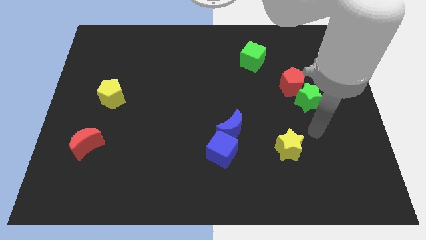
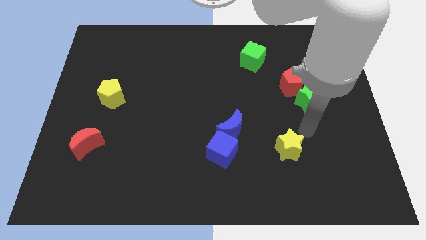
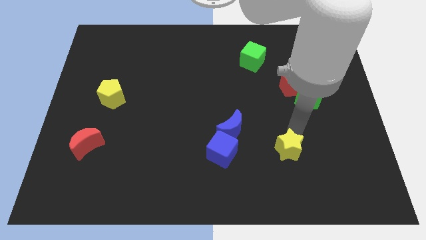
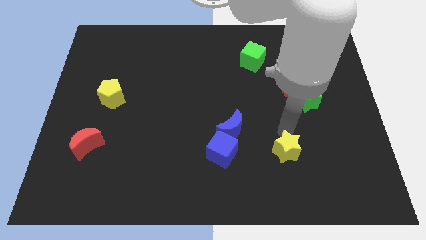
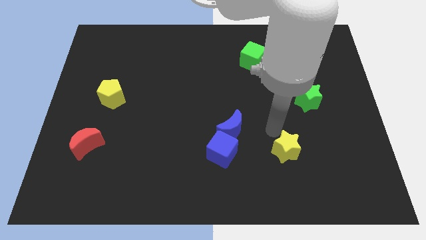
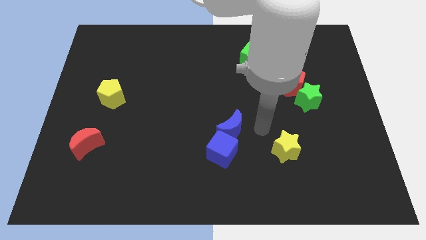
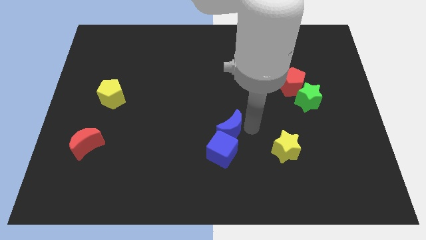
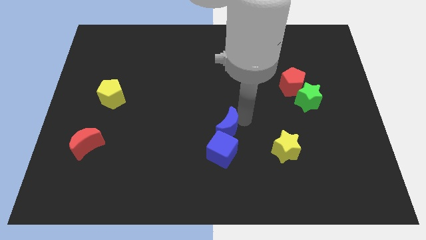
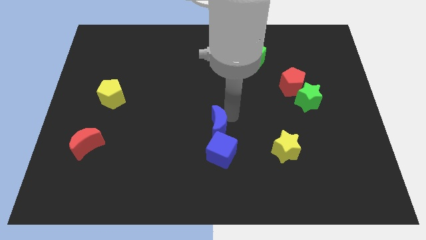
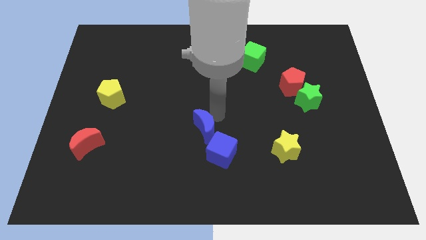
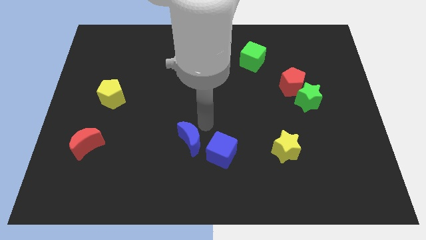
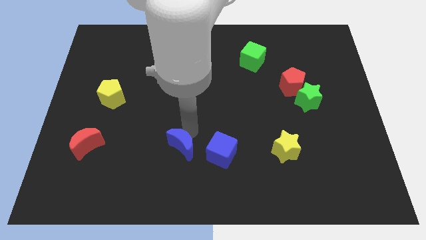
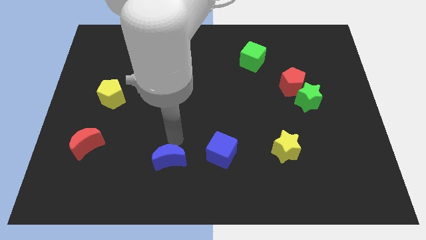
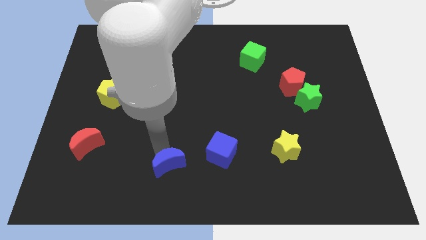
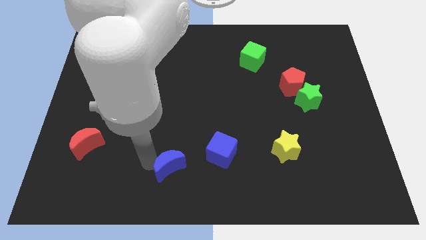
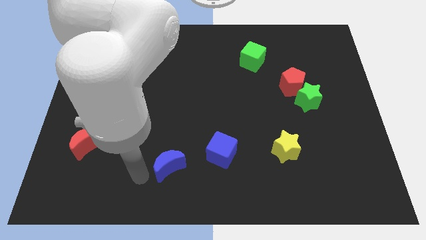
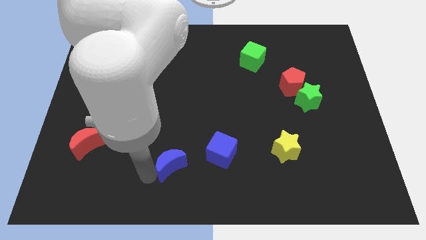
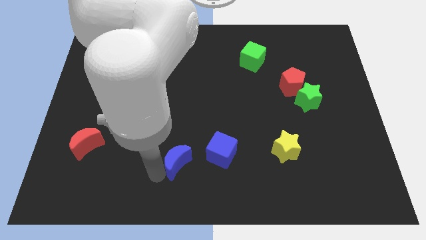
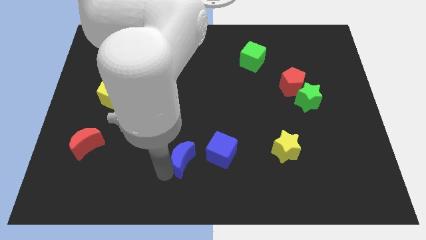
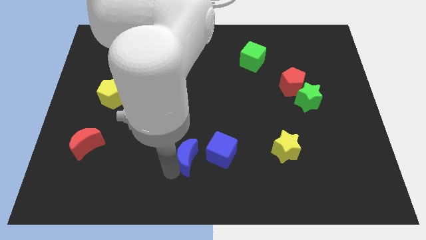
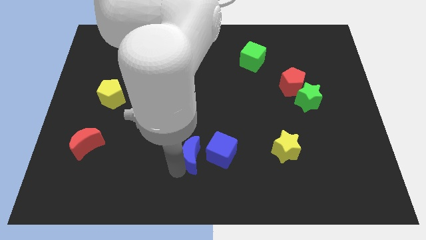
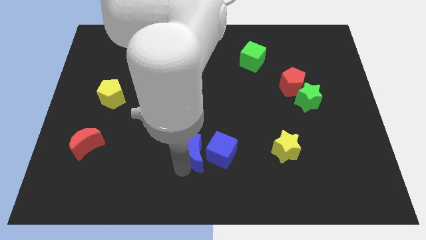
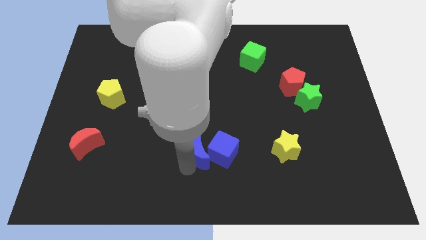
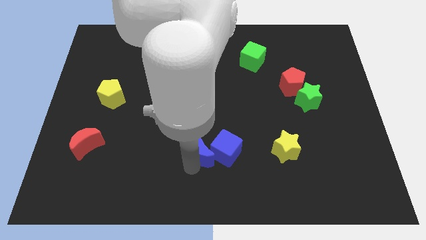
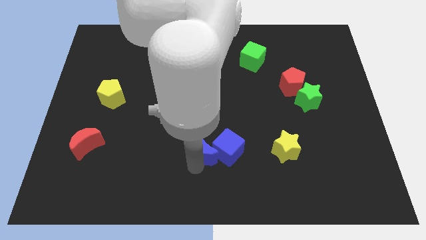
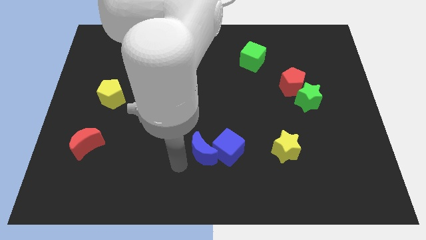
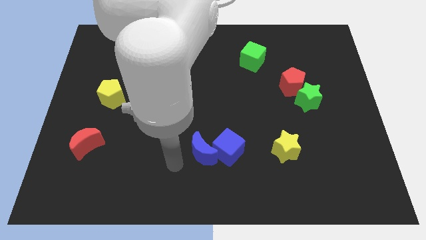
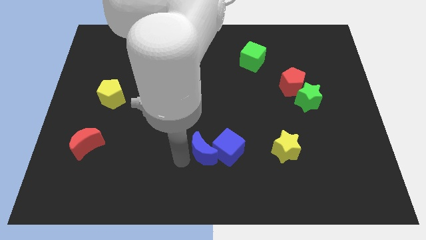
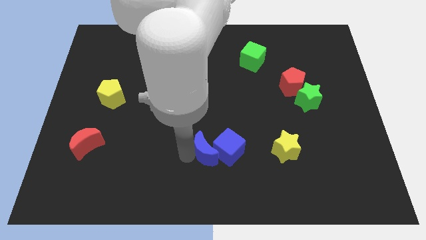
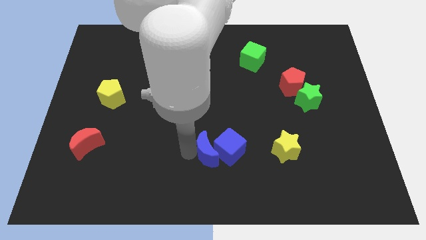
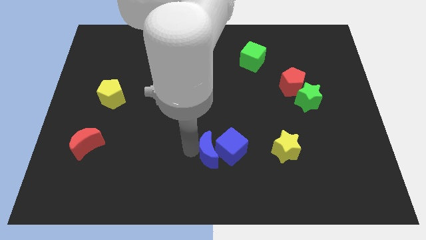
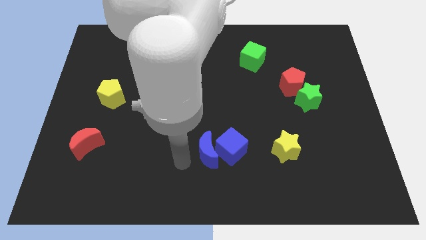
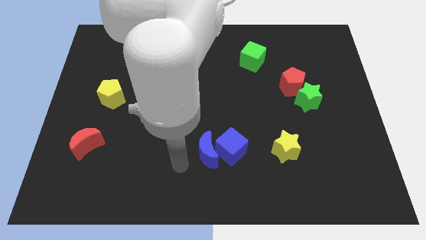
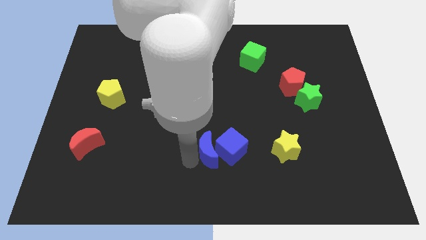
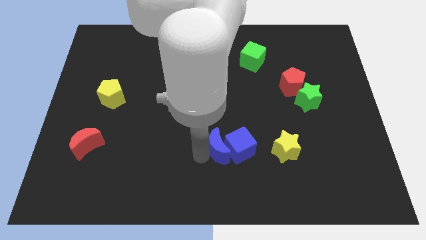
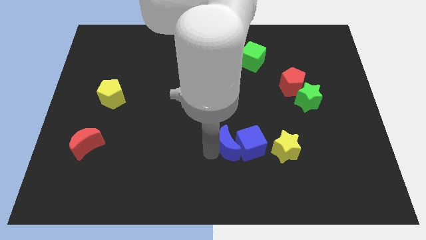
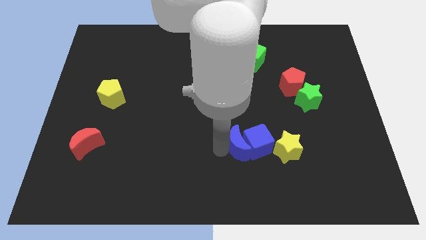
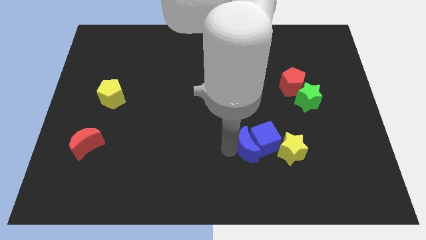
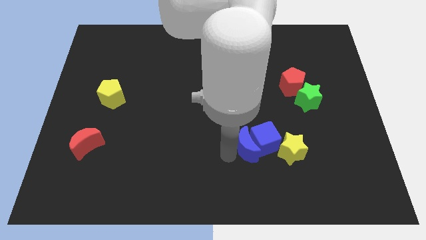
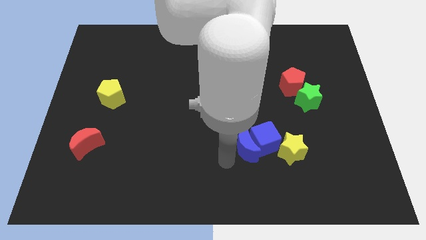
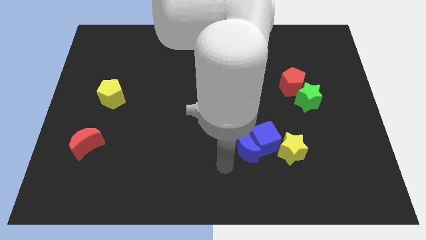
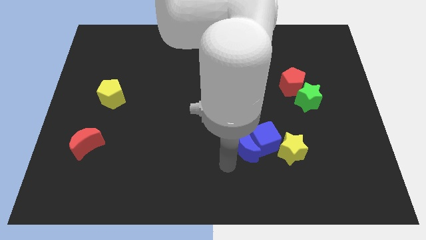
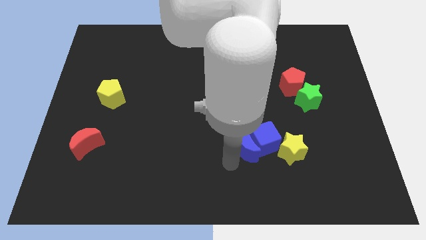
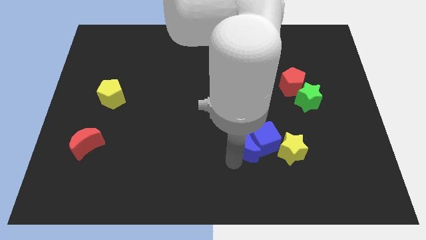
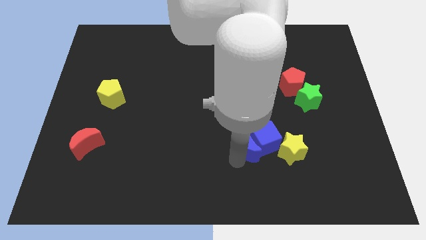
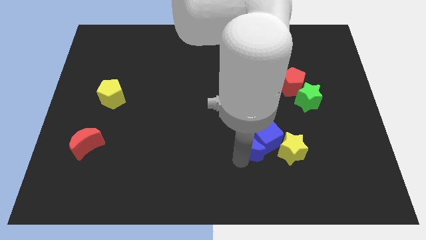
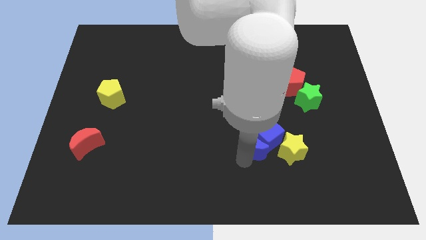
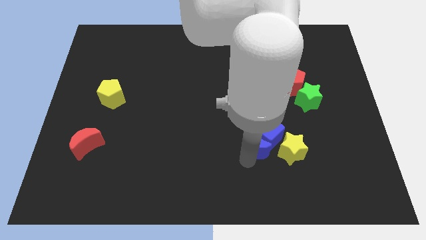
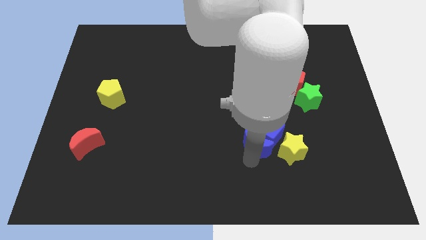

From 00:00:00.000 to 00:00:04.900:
slide the blue moon diagonally up and to the left of the yellow star

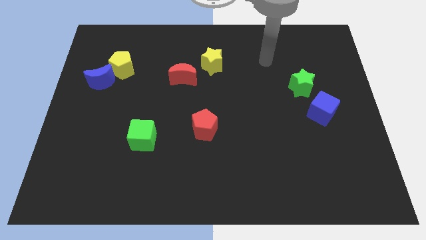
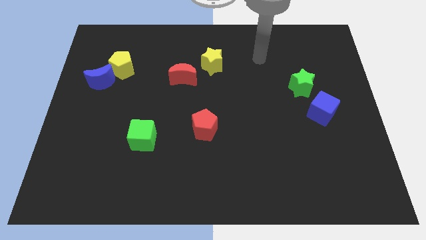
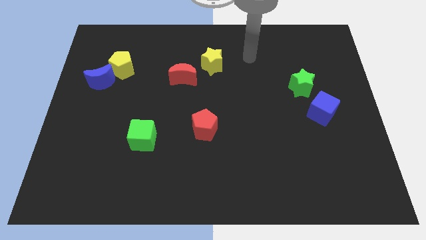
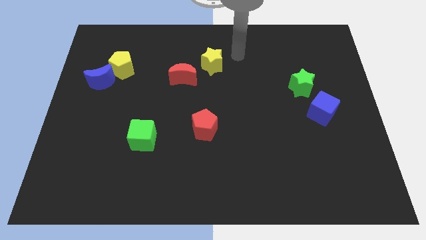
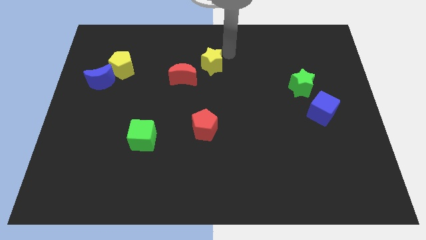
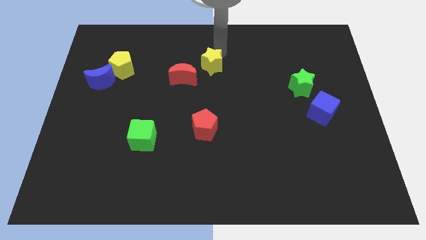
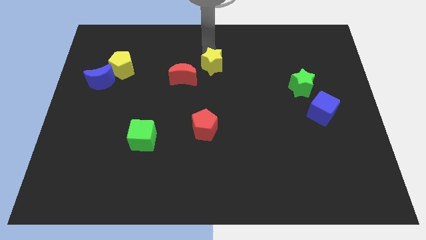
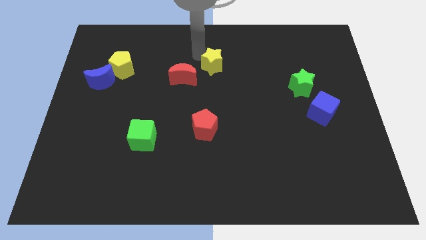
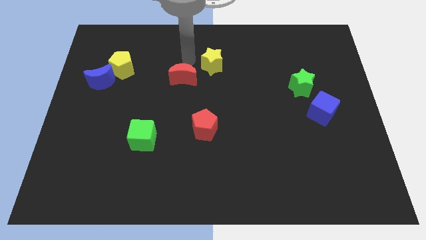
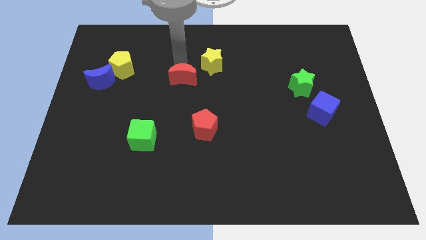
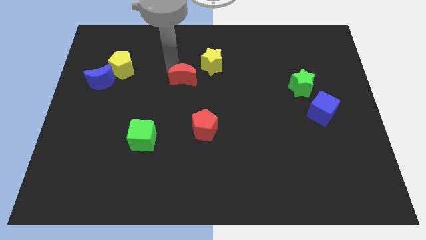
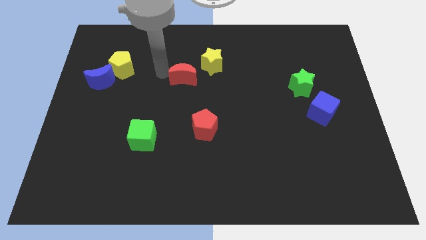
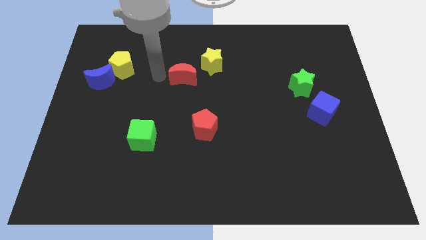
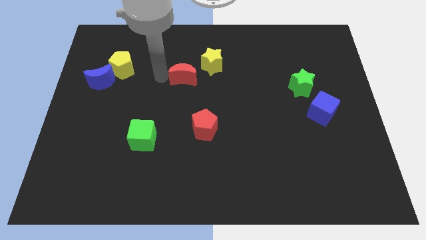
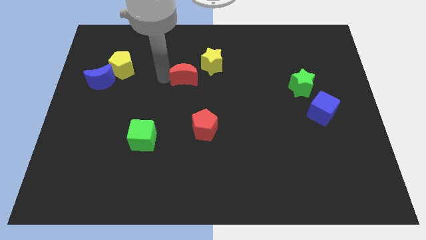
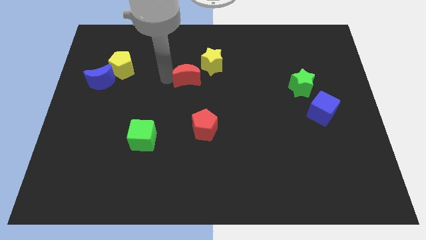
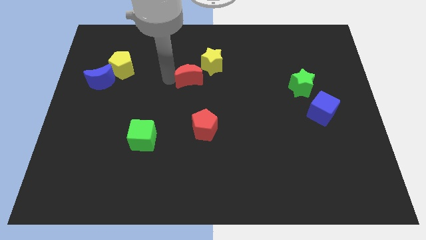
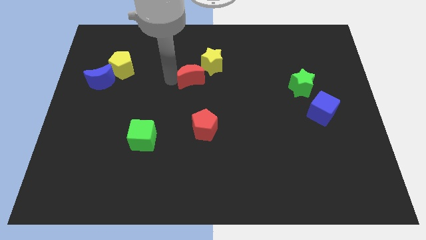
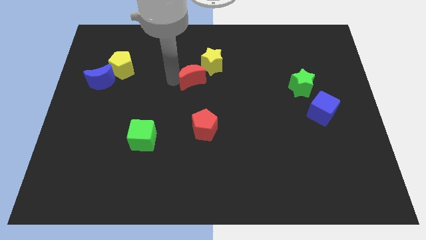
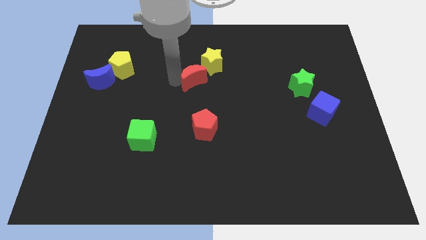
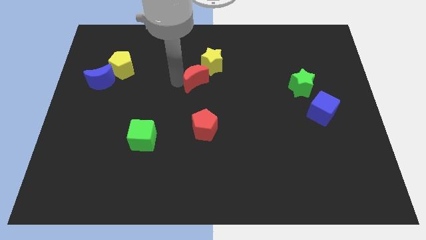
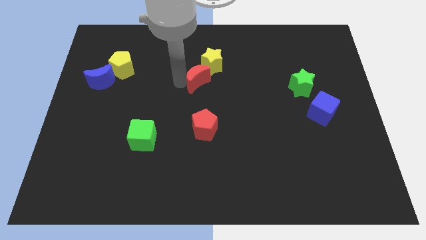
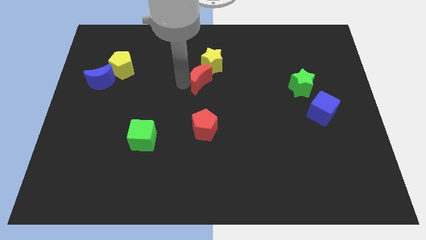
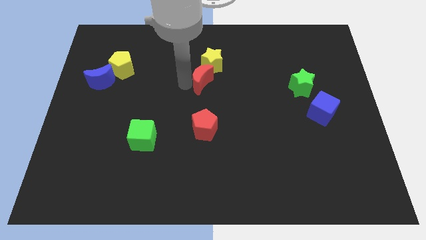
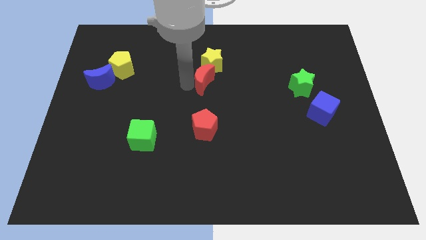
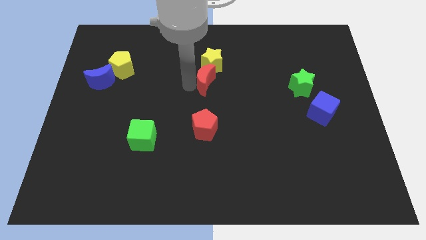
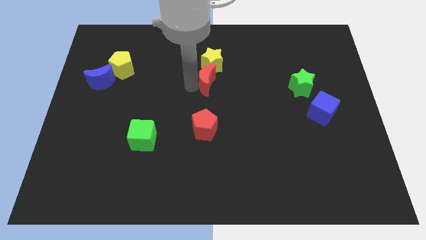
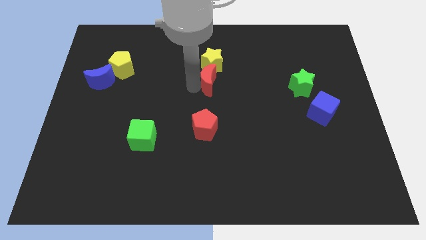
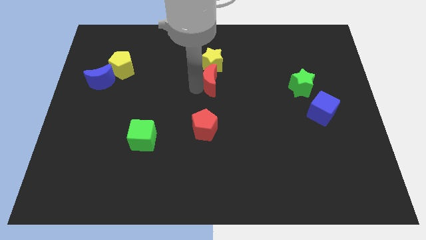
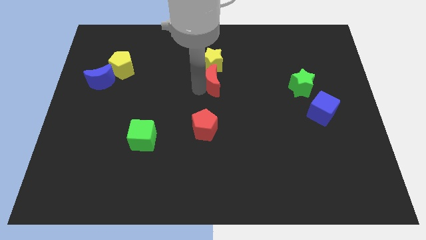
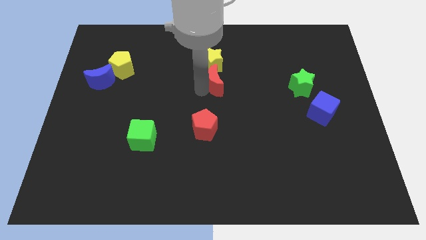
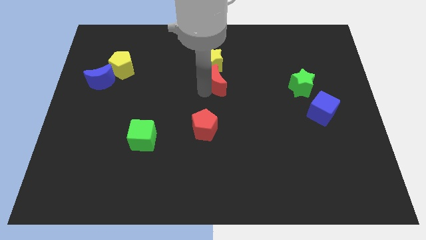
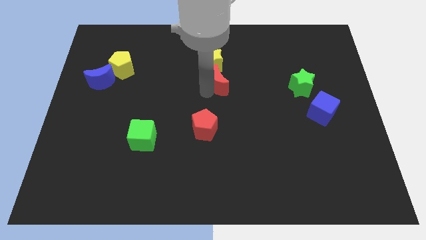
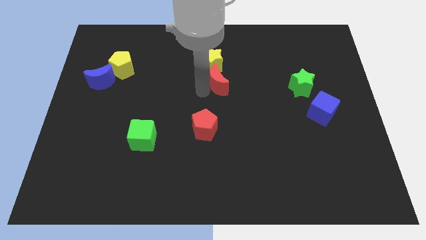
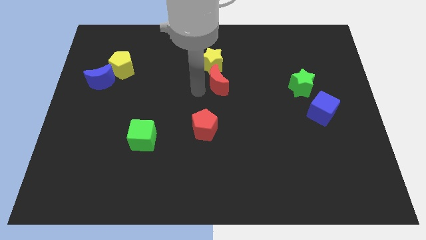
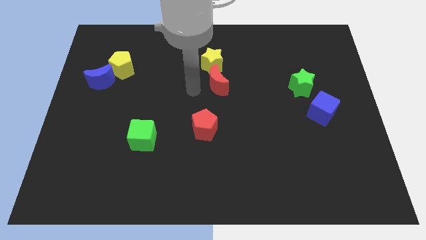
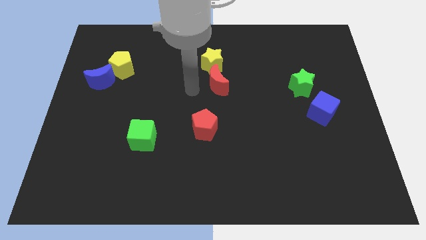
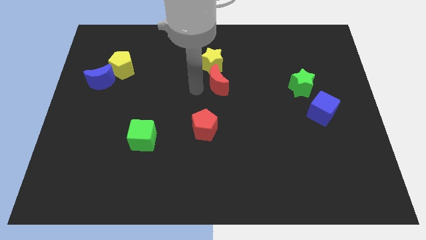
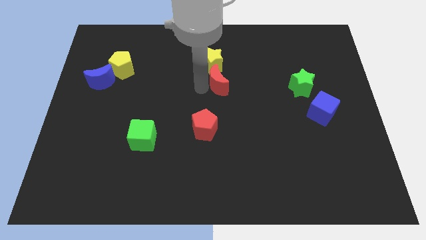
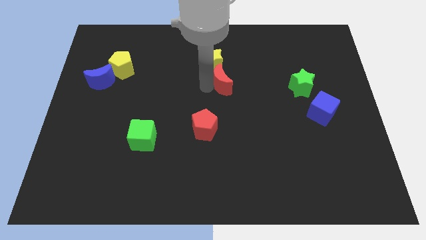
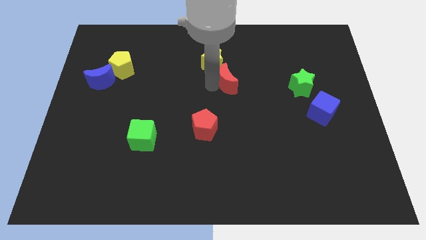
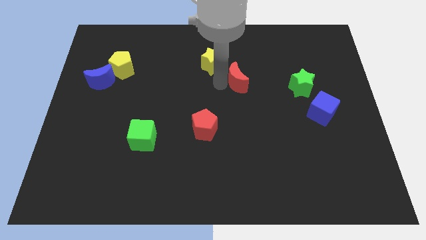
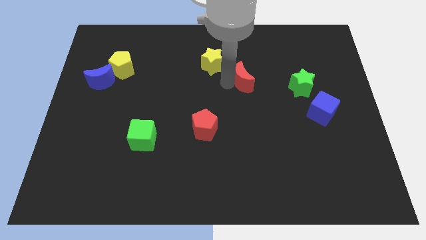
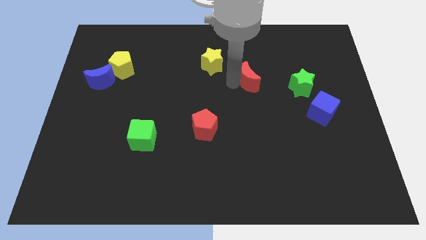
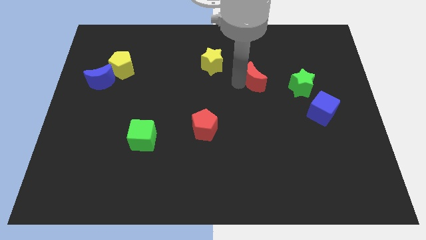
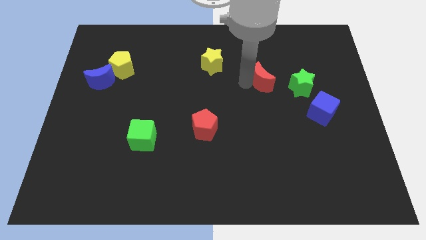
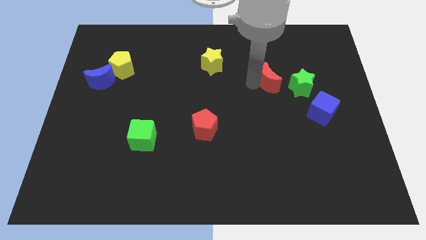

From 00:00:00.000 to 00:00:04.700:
slide the red moon diagonally up and to the left of the green star
